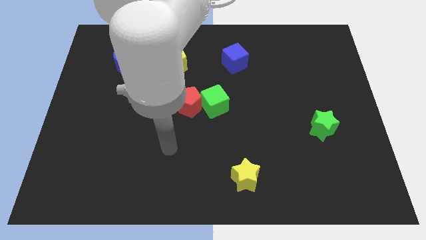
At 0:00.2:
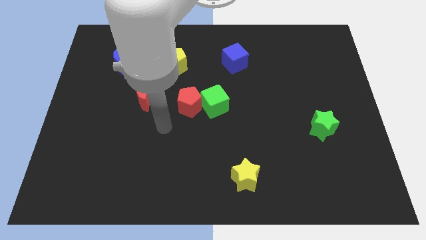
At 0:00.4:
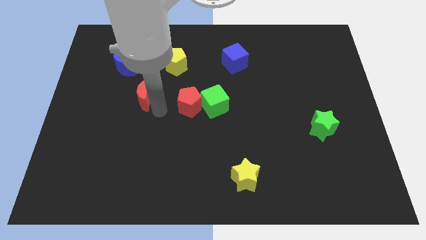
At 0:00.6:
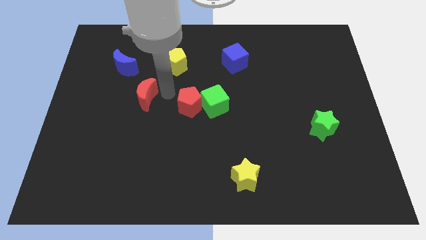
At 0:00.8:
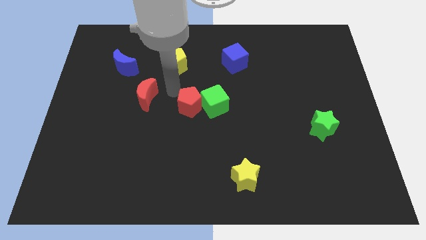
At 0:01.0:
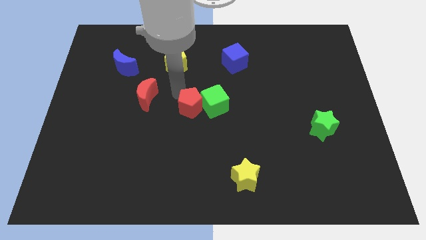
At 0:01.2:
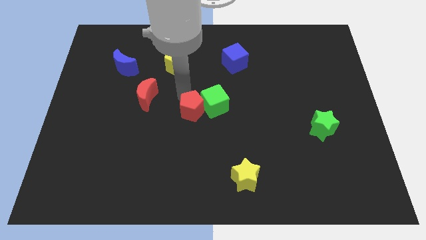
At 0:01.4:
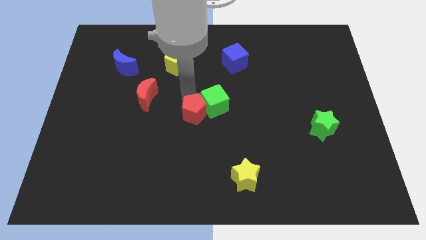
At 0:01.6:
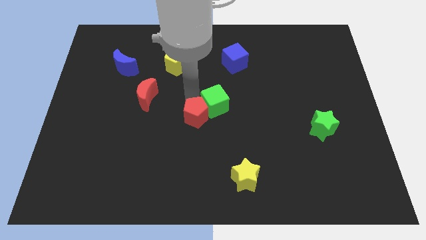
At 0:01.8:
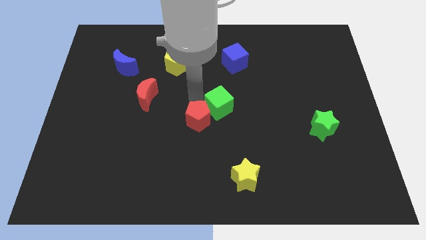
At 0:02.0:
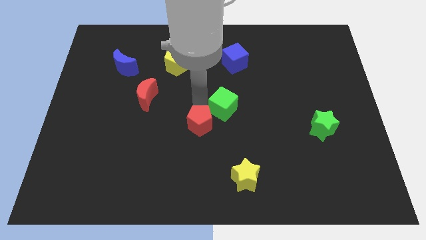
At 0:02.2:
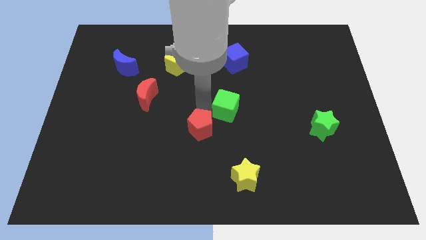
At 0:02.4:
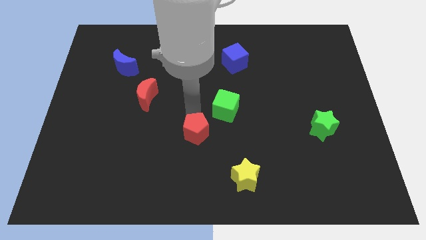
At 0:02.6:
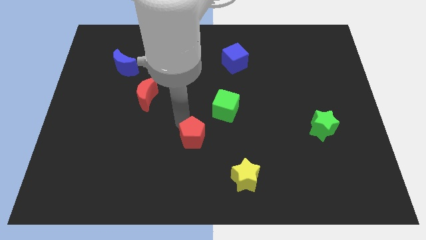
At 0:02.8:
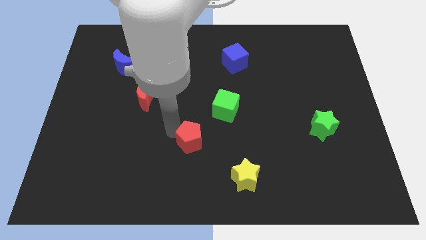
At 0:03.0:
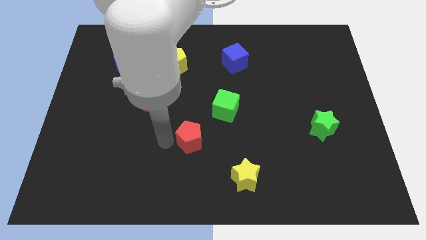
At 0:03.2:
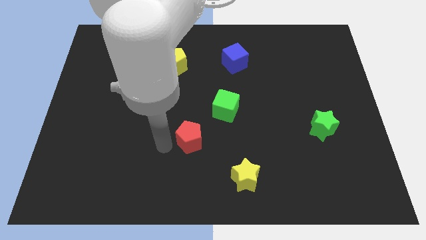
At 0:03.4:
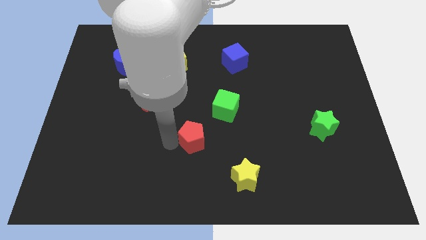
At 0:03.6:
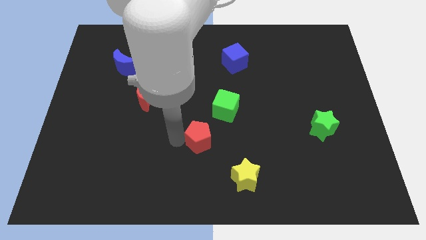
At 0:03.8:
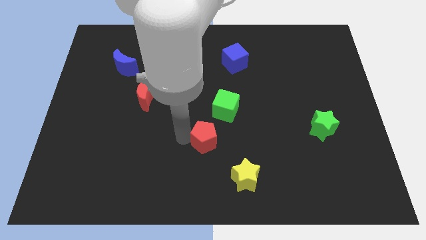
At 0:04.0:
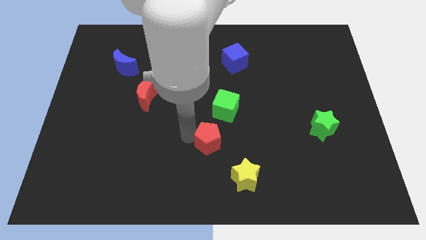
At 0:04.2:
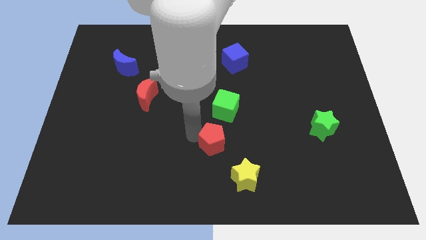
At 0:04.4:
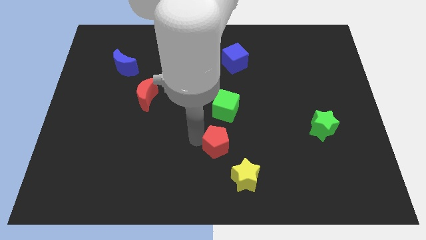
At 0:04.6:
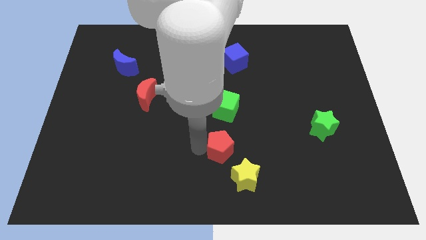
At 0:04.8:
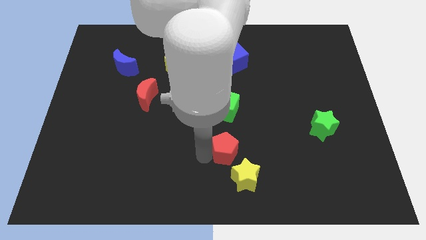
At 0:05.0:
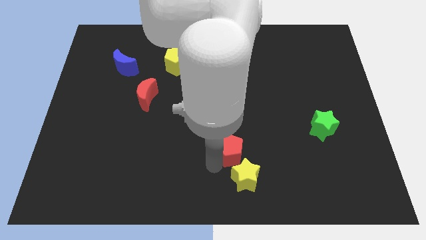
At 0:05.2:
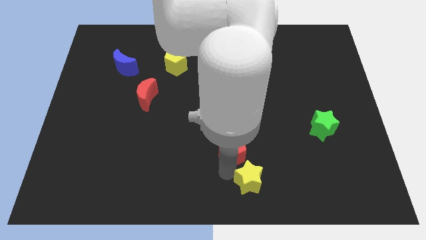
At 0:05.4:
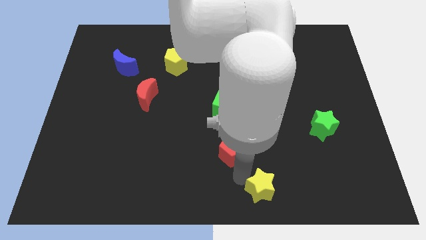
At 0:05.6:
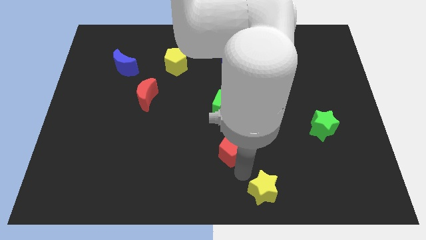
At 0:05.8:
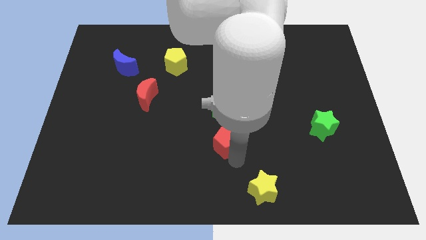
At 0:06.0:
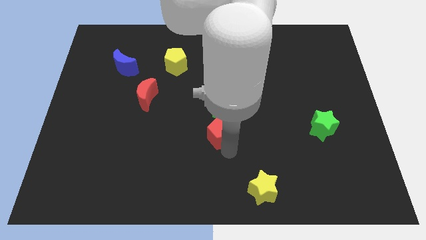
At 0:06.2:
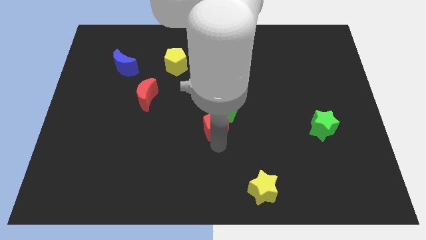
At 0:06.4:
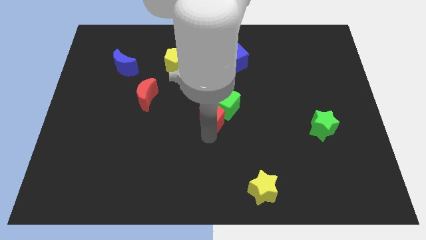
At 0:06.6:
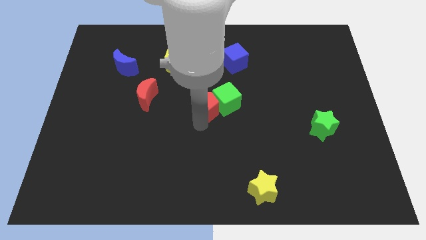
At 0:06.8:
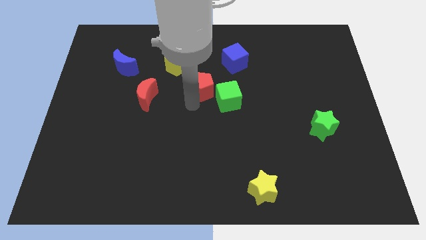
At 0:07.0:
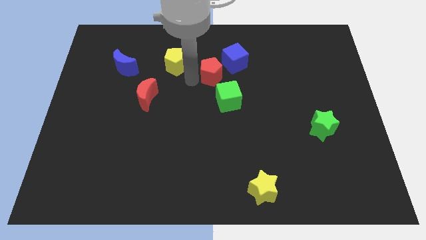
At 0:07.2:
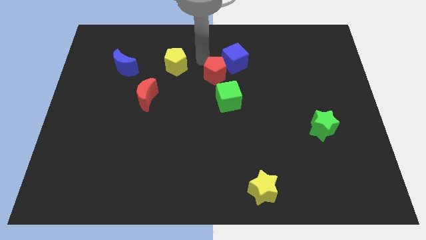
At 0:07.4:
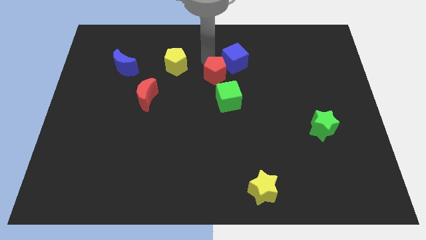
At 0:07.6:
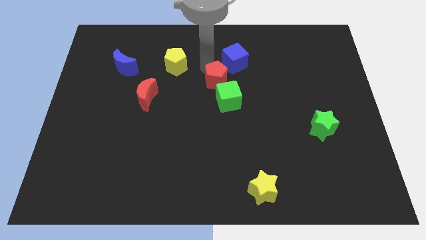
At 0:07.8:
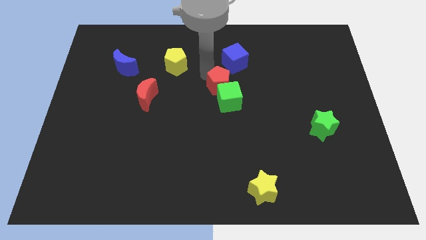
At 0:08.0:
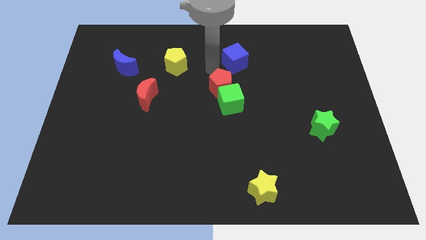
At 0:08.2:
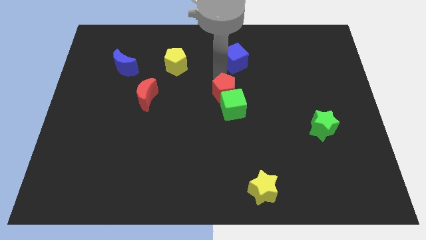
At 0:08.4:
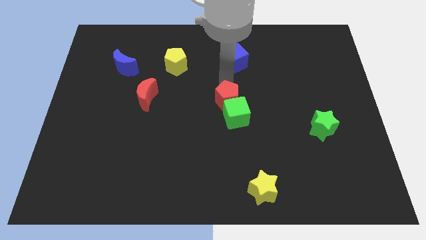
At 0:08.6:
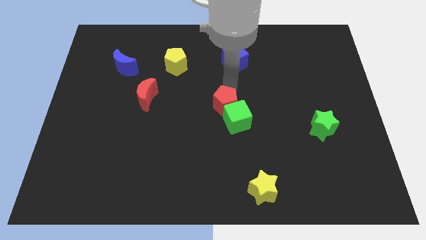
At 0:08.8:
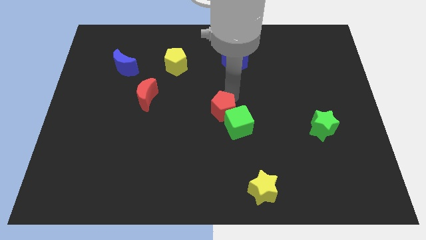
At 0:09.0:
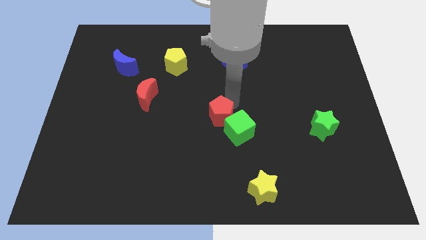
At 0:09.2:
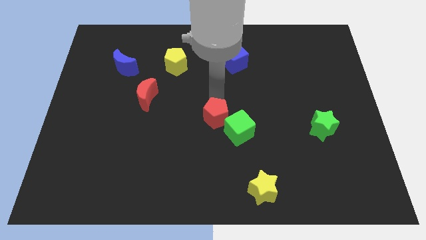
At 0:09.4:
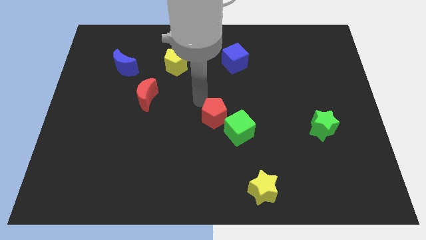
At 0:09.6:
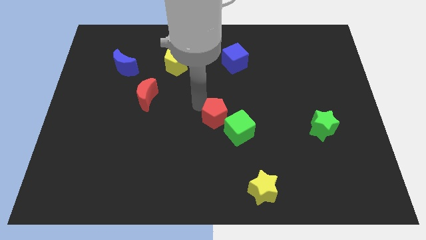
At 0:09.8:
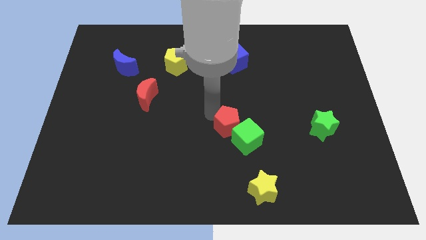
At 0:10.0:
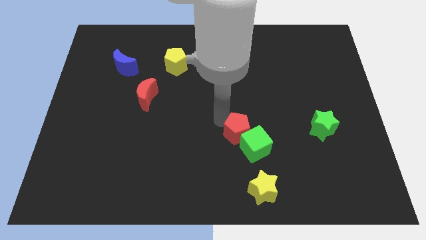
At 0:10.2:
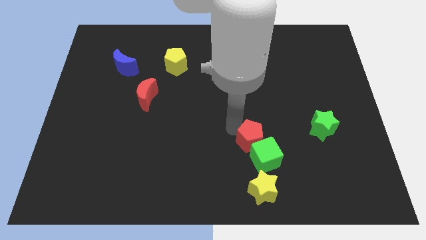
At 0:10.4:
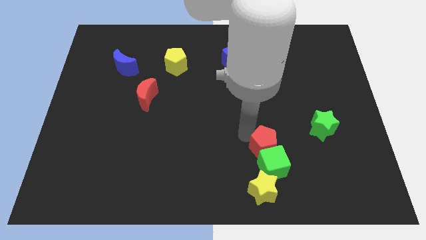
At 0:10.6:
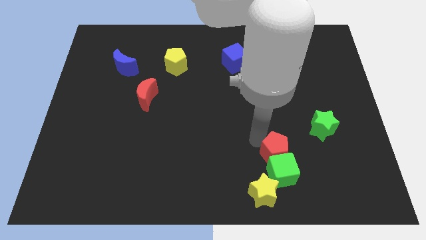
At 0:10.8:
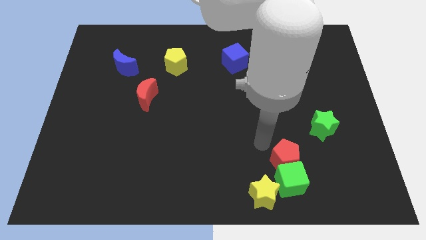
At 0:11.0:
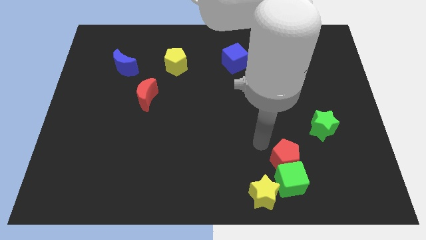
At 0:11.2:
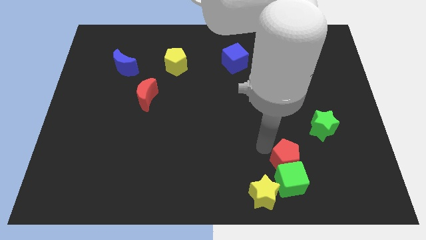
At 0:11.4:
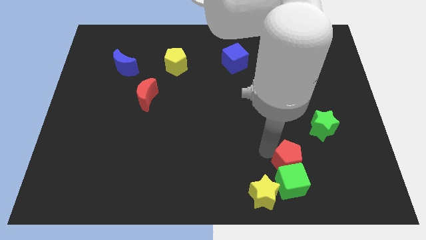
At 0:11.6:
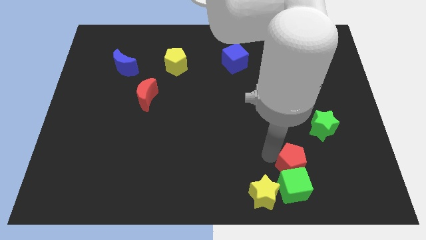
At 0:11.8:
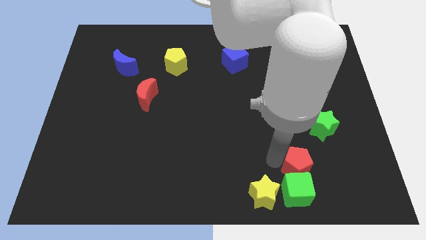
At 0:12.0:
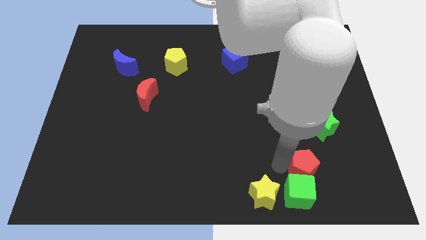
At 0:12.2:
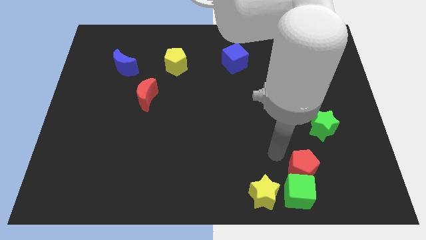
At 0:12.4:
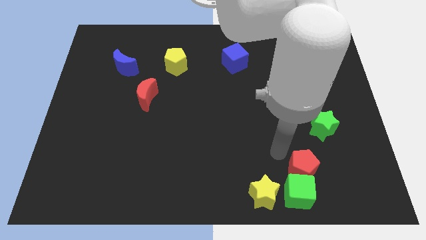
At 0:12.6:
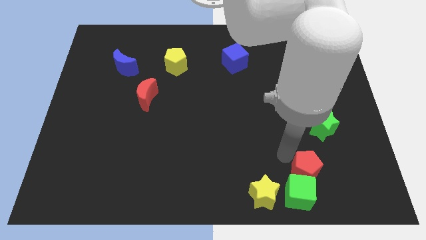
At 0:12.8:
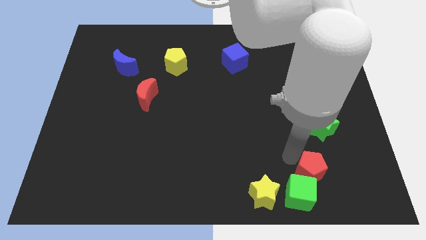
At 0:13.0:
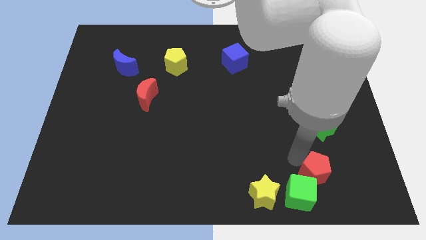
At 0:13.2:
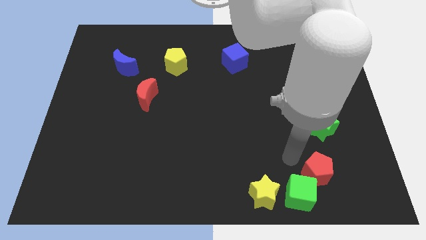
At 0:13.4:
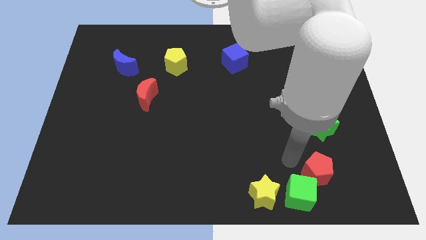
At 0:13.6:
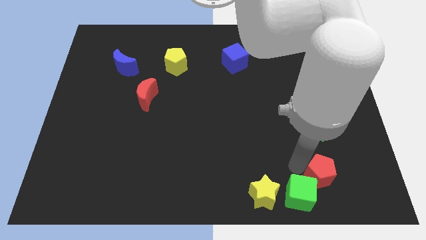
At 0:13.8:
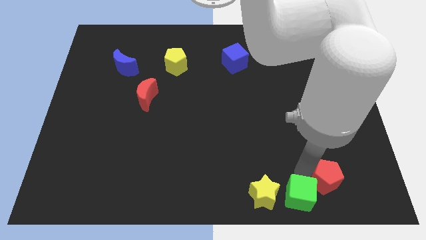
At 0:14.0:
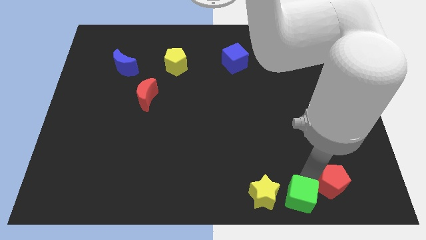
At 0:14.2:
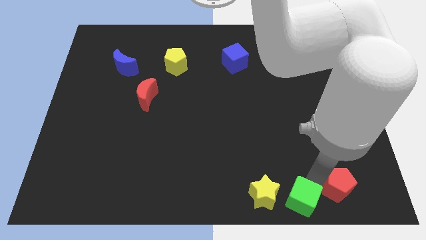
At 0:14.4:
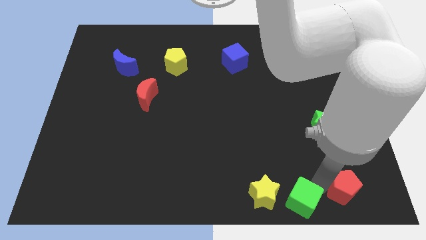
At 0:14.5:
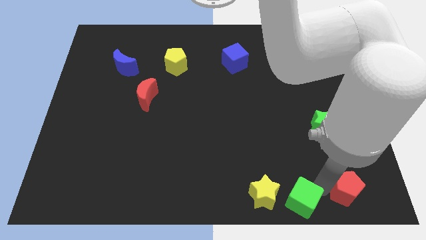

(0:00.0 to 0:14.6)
push the red pentagon to the bottom right

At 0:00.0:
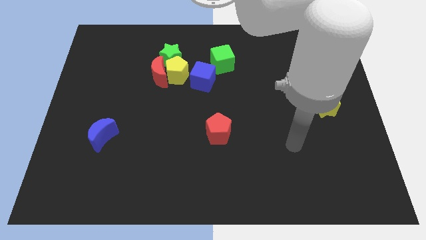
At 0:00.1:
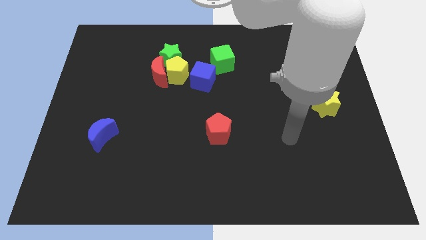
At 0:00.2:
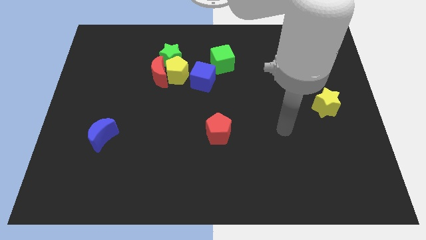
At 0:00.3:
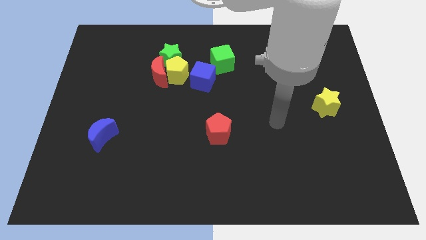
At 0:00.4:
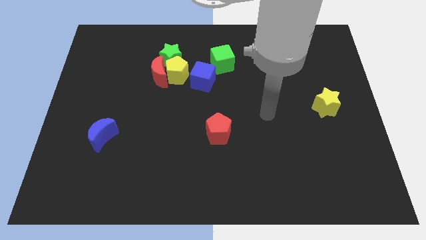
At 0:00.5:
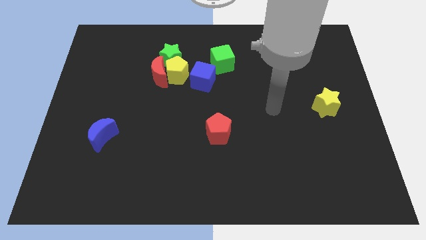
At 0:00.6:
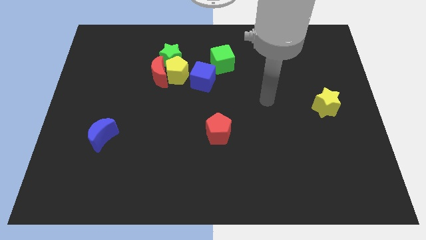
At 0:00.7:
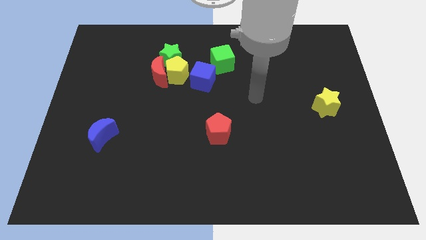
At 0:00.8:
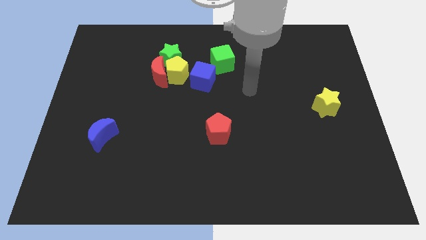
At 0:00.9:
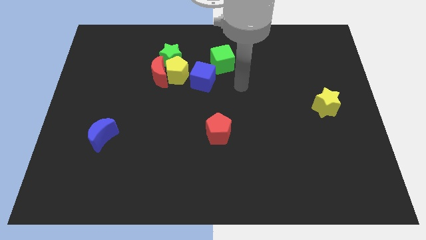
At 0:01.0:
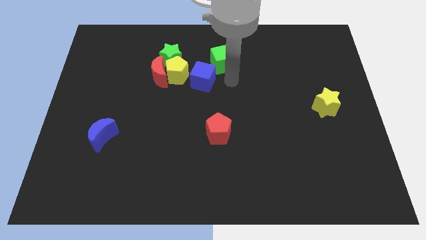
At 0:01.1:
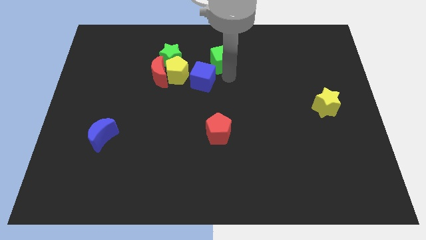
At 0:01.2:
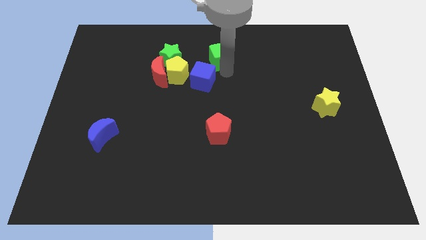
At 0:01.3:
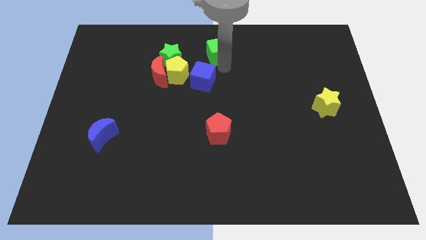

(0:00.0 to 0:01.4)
push the green cube to the top side
